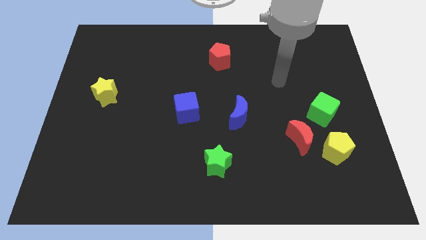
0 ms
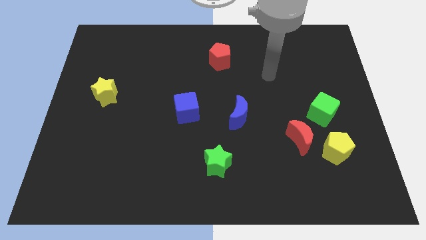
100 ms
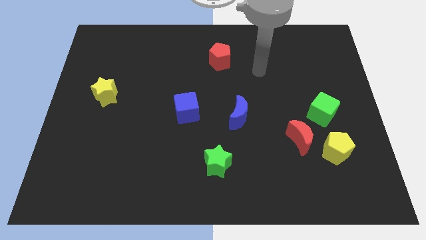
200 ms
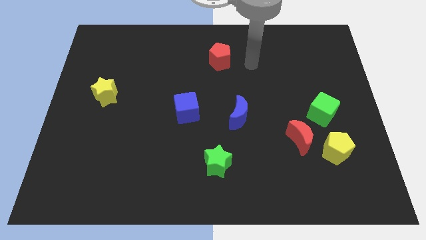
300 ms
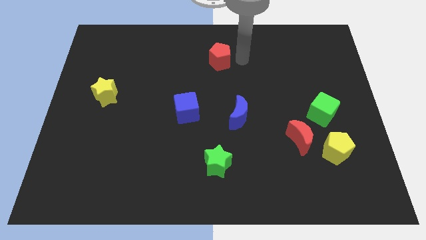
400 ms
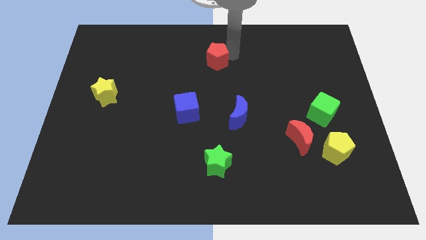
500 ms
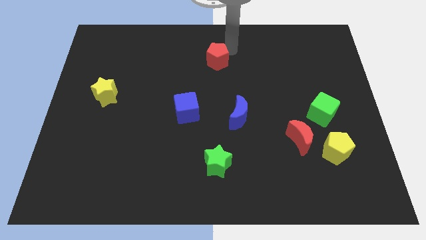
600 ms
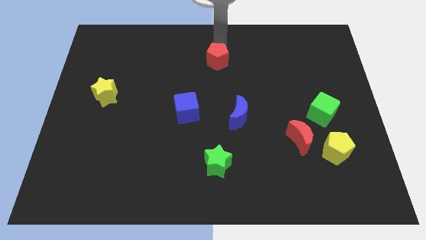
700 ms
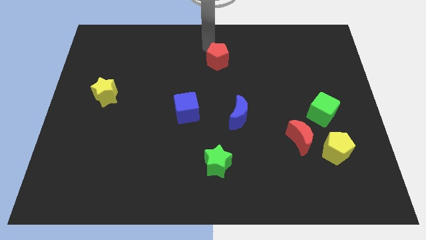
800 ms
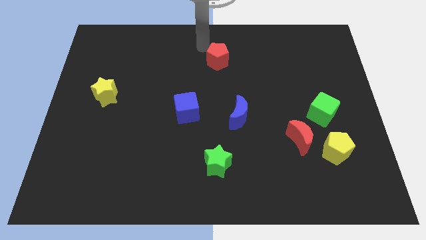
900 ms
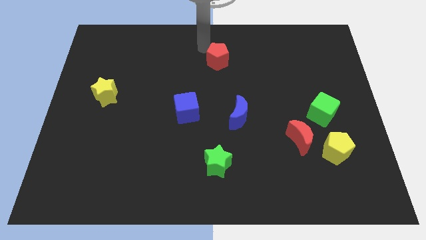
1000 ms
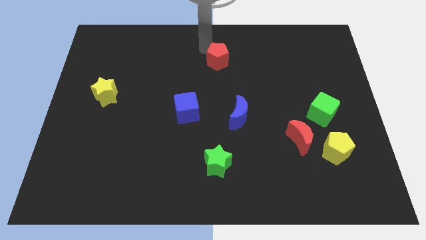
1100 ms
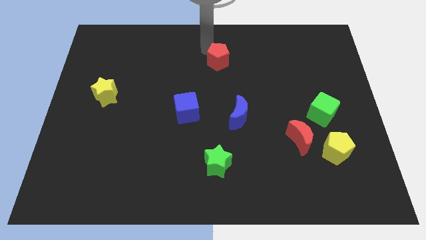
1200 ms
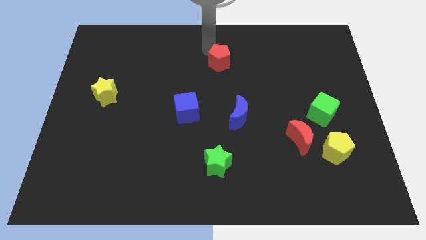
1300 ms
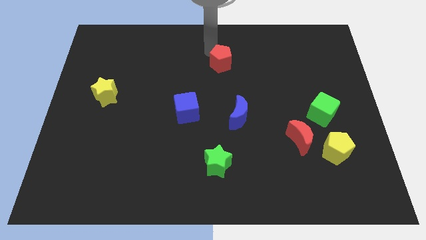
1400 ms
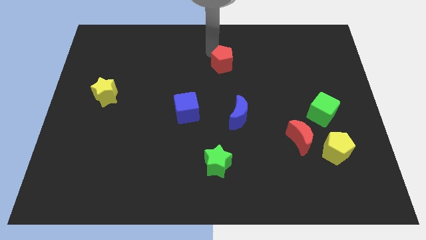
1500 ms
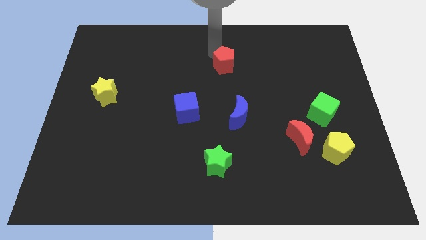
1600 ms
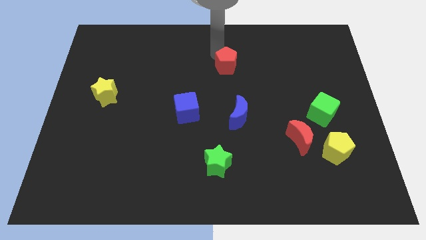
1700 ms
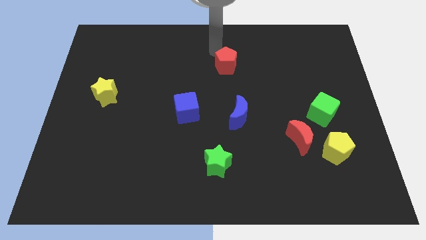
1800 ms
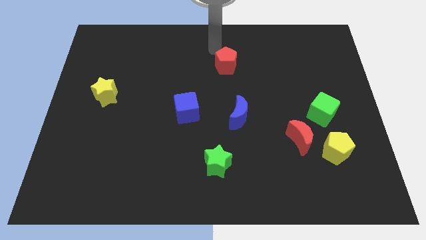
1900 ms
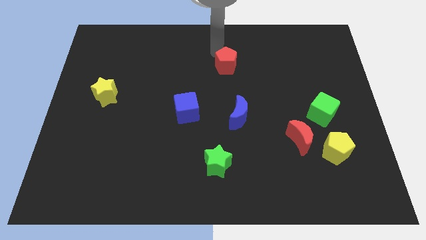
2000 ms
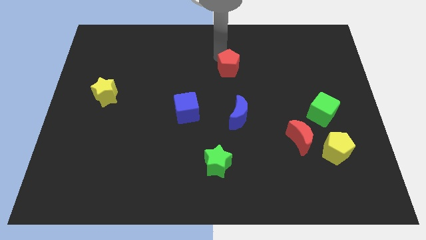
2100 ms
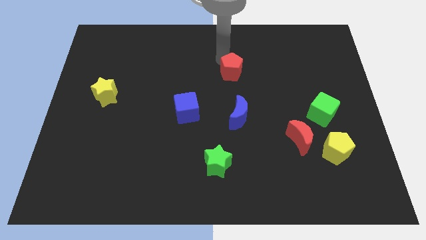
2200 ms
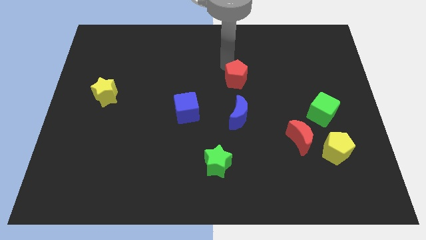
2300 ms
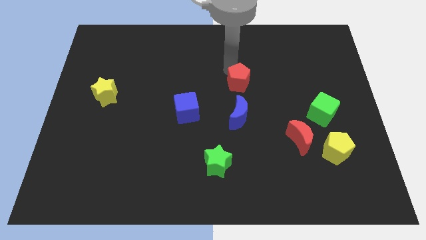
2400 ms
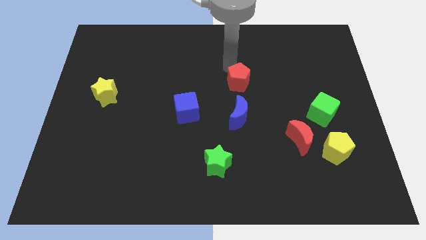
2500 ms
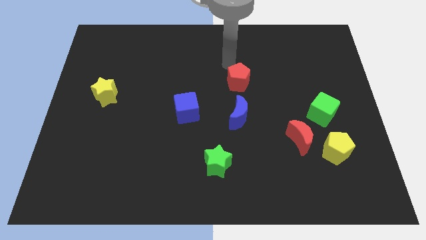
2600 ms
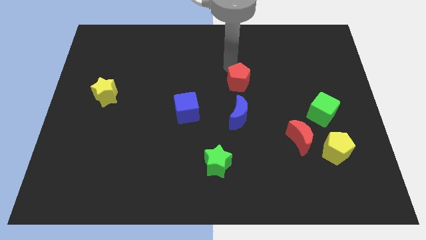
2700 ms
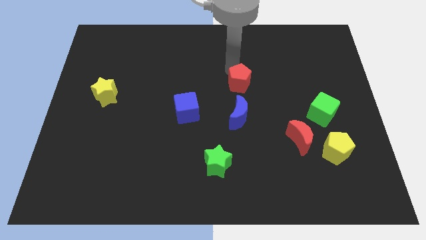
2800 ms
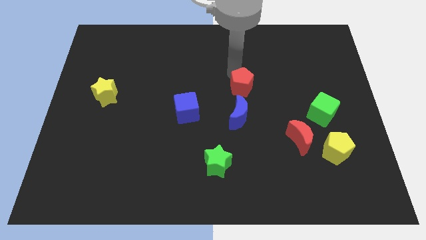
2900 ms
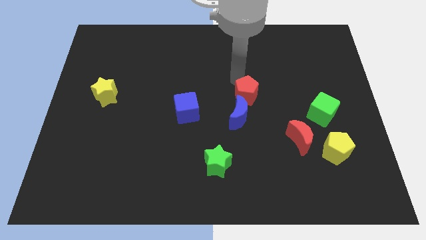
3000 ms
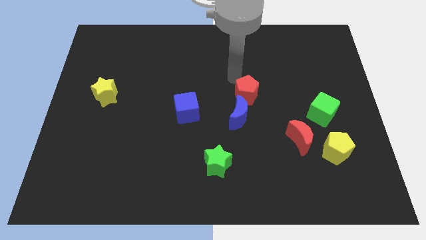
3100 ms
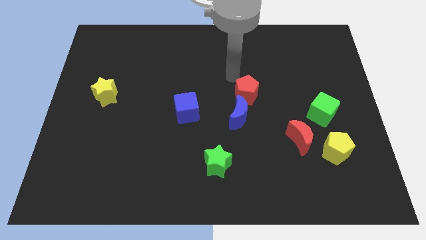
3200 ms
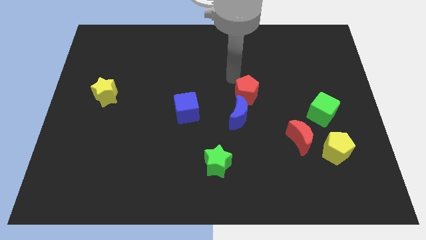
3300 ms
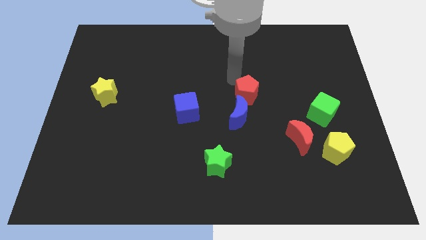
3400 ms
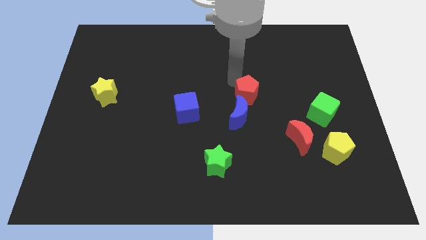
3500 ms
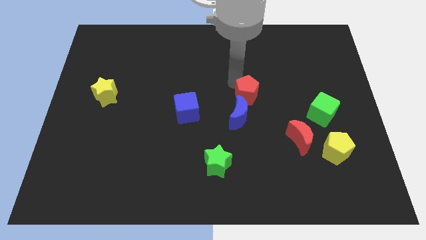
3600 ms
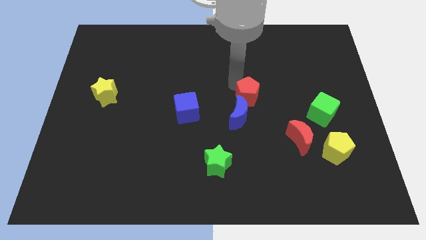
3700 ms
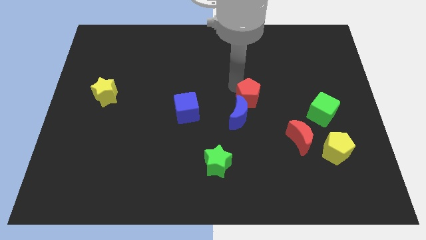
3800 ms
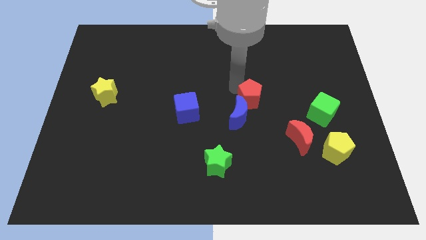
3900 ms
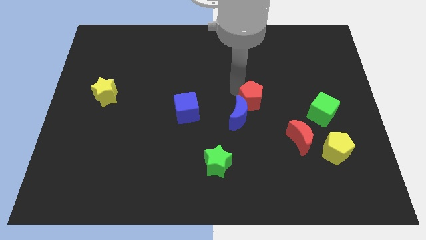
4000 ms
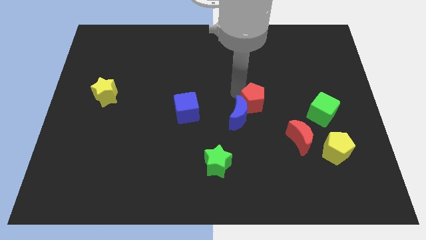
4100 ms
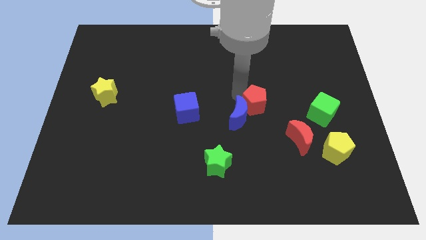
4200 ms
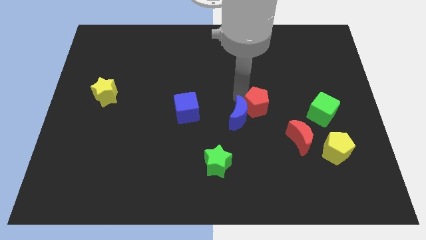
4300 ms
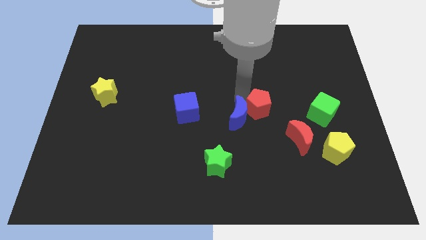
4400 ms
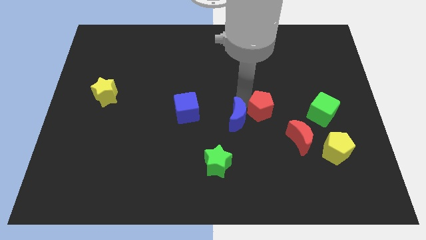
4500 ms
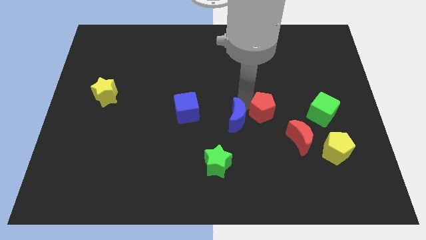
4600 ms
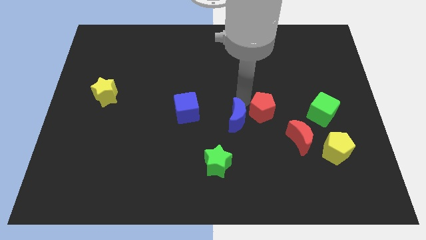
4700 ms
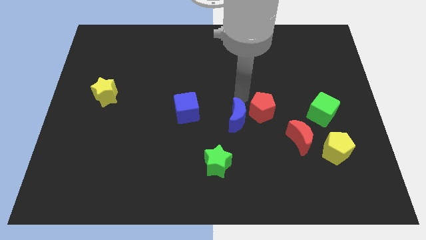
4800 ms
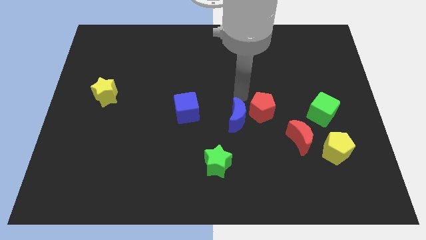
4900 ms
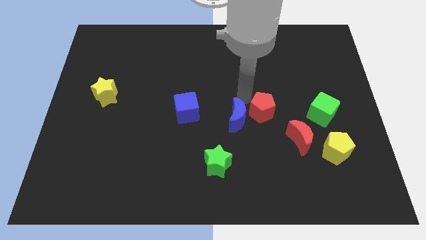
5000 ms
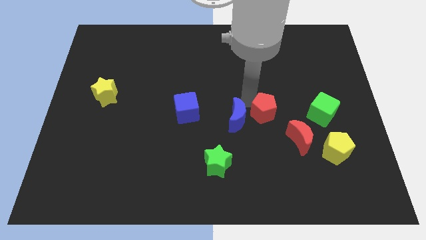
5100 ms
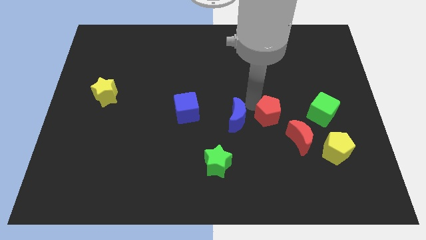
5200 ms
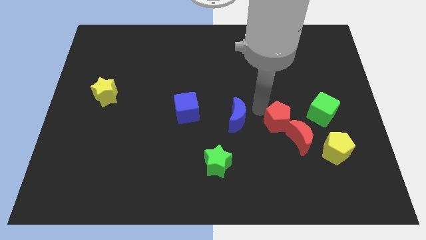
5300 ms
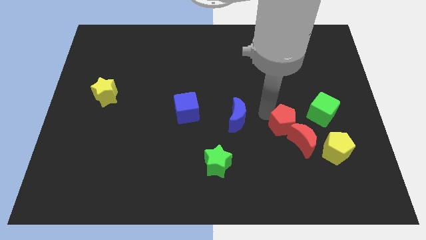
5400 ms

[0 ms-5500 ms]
push the red pentagon close to the red moon

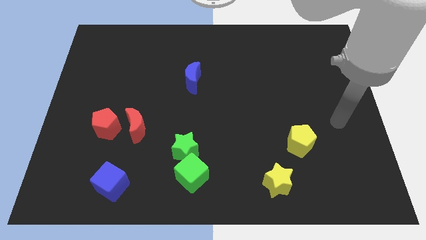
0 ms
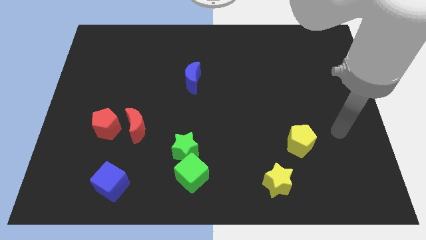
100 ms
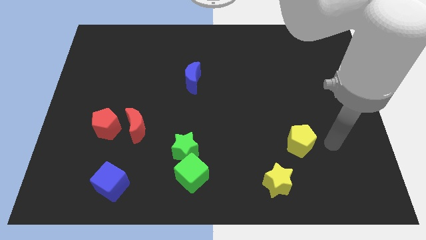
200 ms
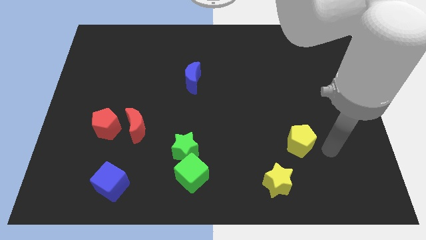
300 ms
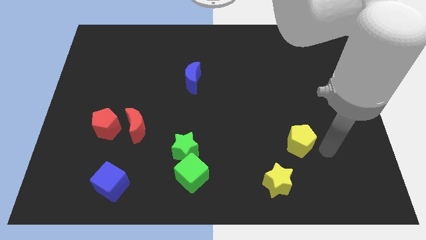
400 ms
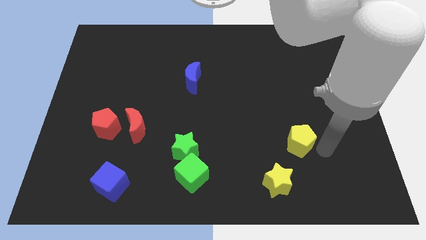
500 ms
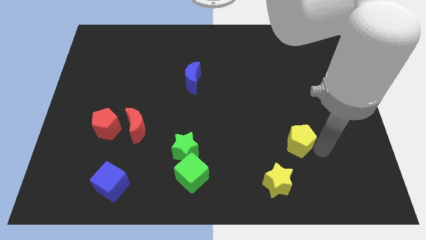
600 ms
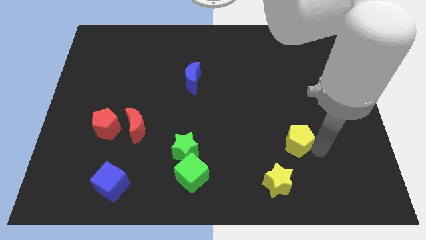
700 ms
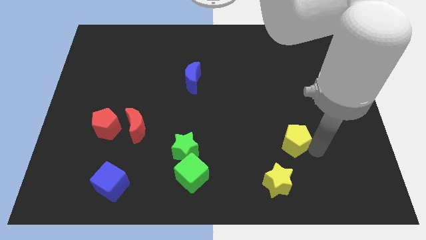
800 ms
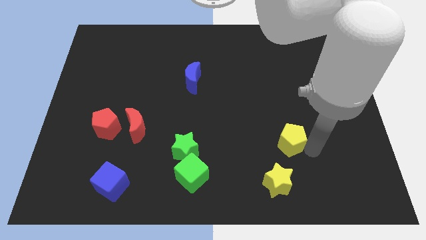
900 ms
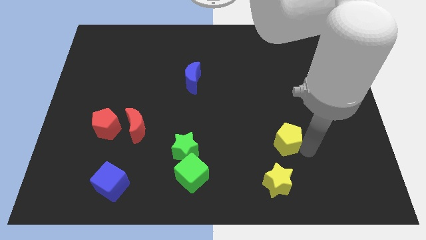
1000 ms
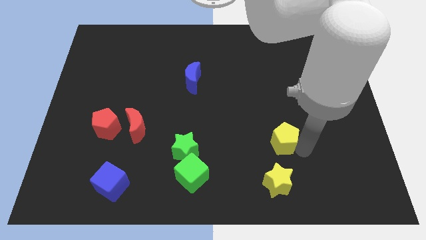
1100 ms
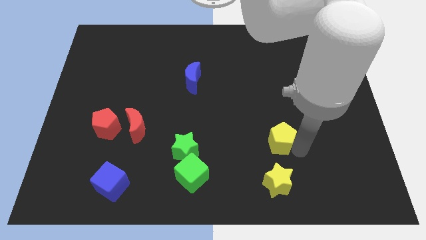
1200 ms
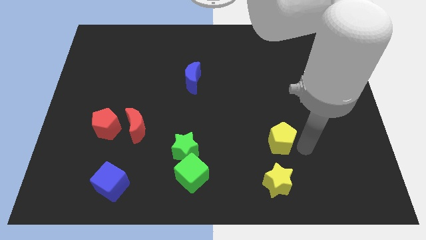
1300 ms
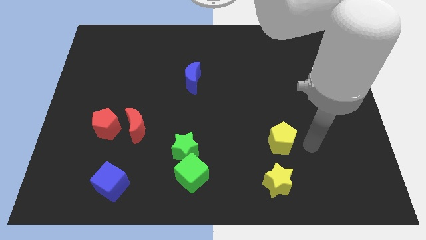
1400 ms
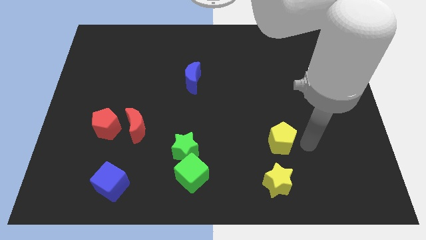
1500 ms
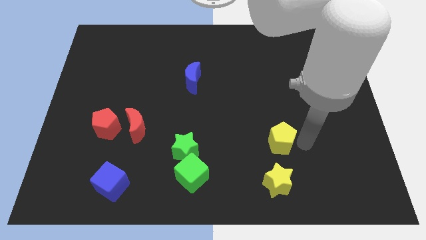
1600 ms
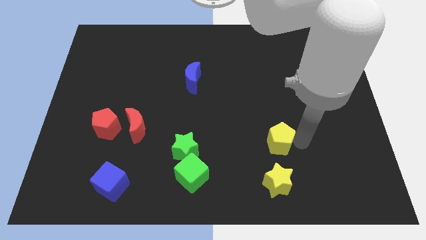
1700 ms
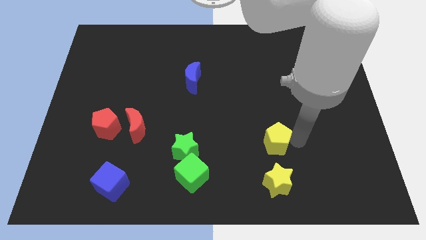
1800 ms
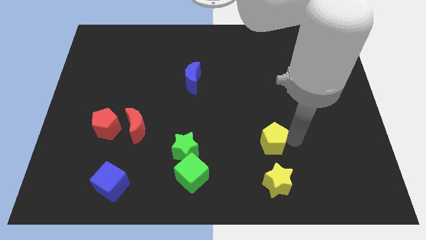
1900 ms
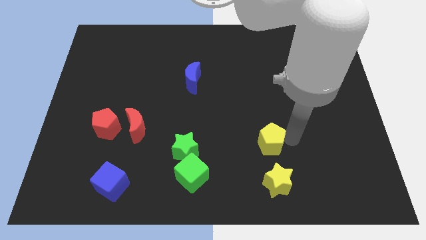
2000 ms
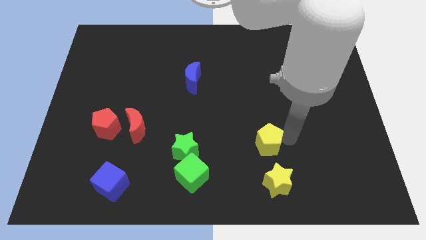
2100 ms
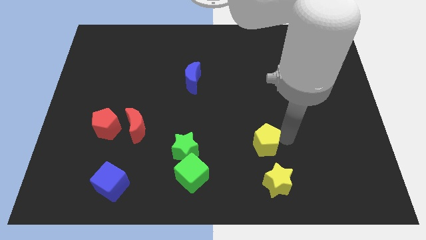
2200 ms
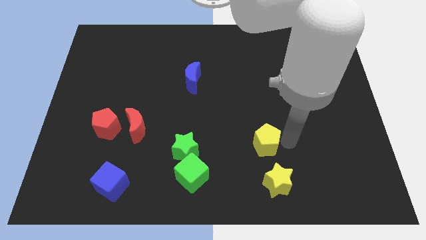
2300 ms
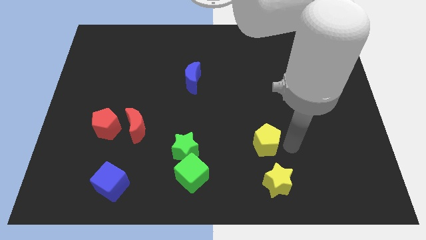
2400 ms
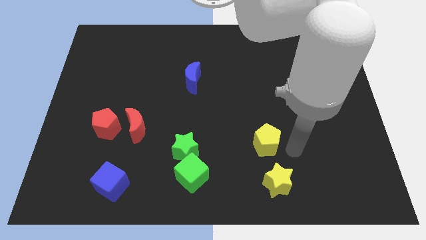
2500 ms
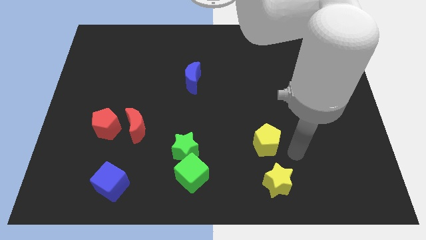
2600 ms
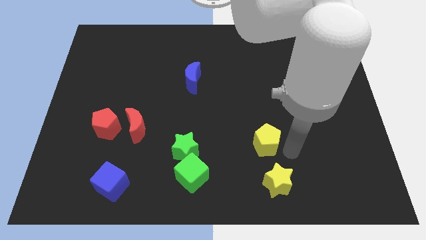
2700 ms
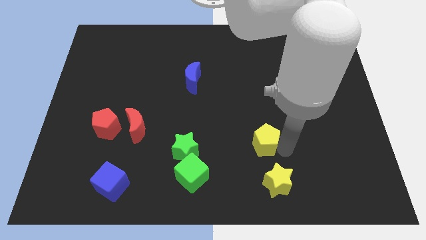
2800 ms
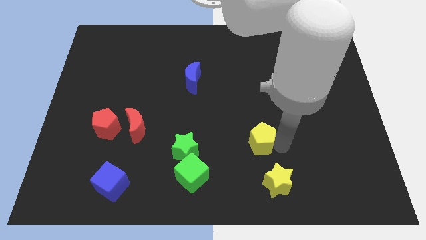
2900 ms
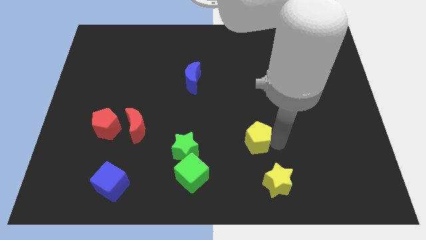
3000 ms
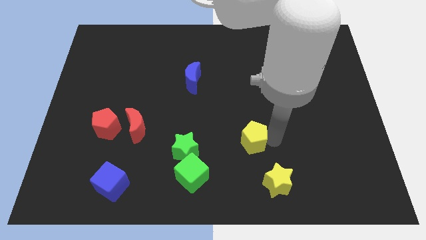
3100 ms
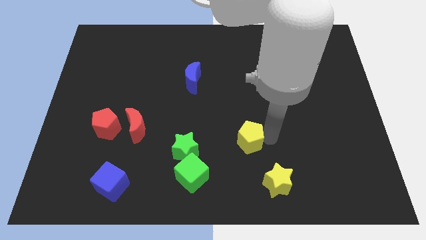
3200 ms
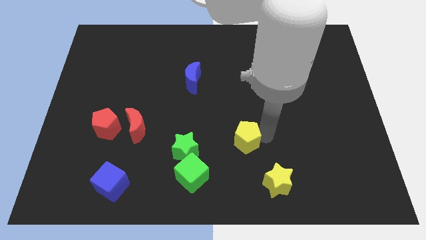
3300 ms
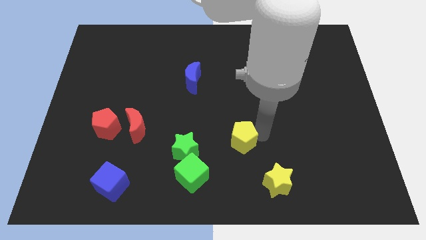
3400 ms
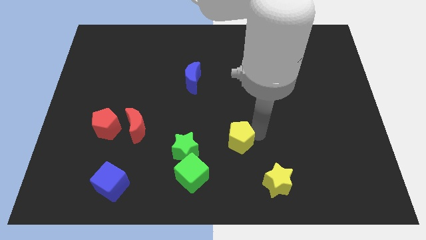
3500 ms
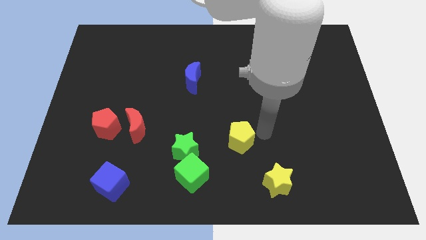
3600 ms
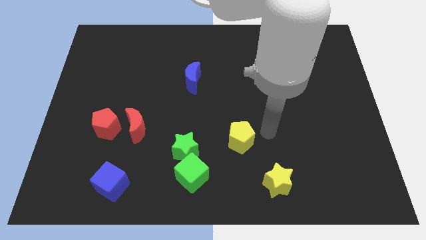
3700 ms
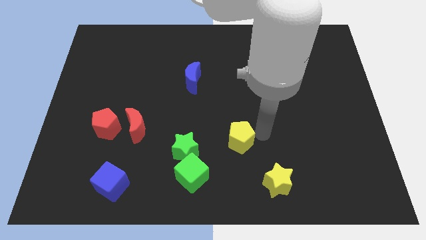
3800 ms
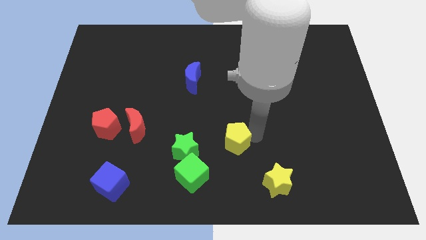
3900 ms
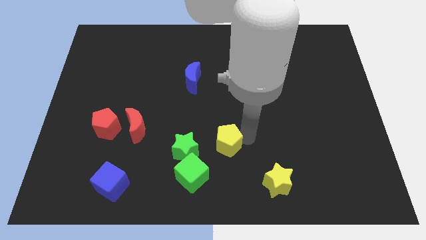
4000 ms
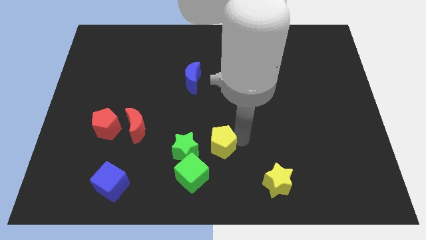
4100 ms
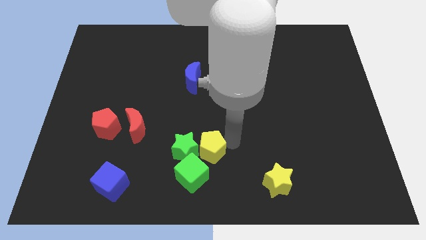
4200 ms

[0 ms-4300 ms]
push the yellow pentagon next to the green star
